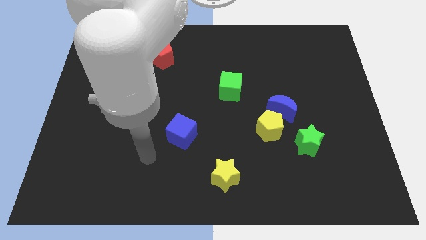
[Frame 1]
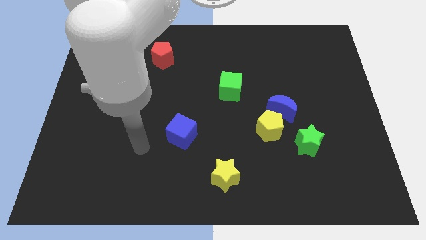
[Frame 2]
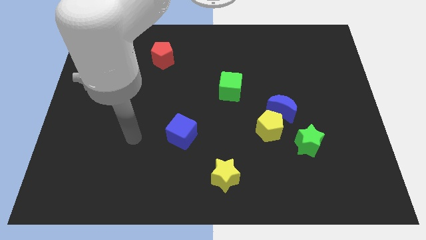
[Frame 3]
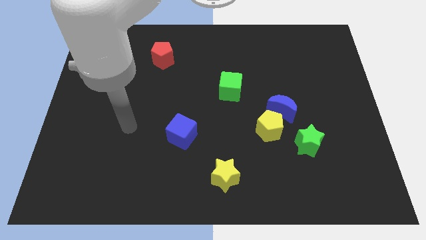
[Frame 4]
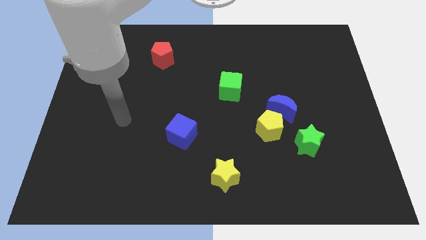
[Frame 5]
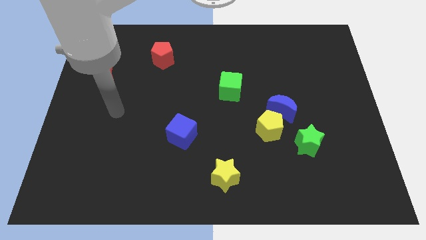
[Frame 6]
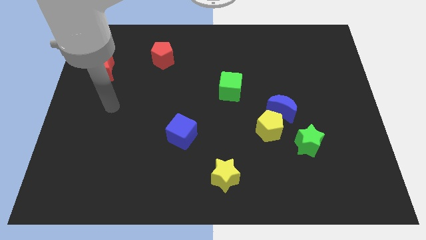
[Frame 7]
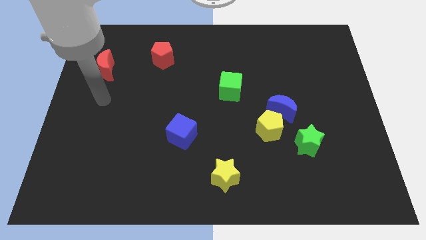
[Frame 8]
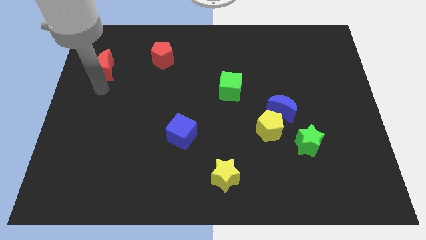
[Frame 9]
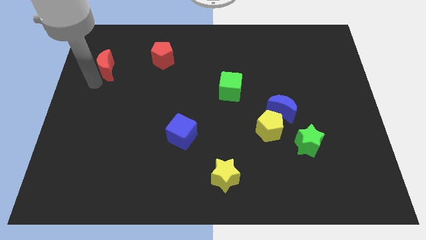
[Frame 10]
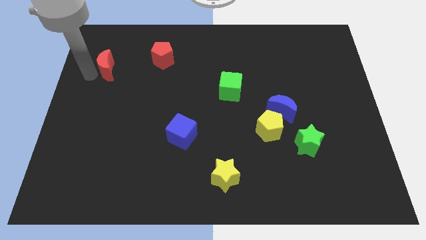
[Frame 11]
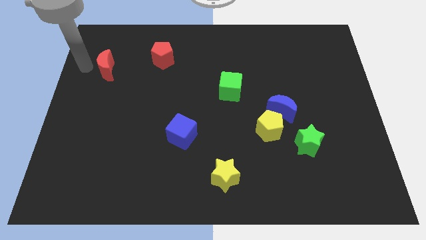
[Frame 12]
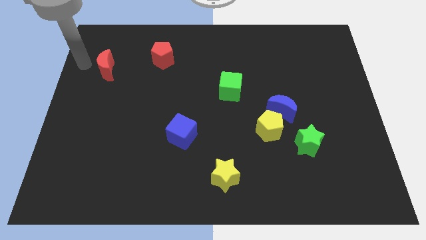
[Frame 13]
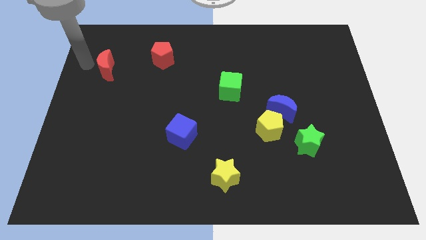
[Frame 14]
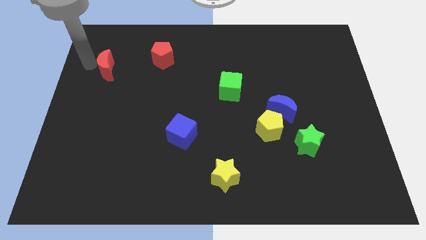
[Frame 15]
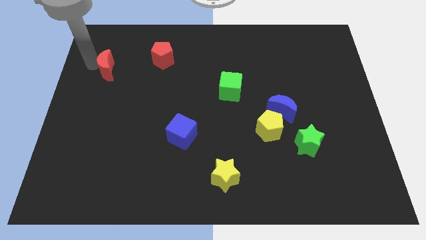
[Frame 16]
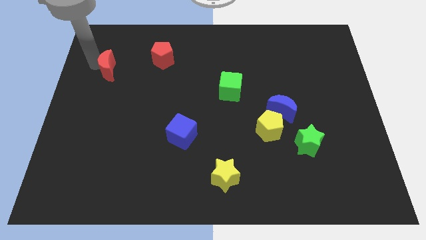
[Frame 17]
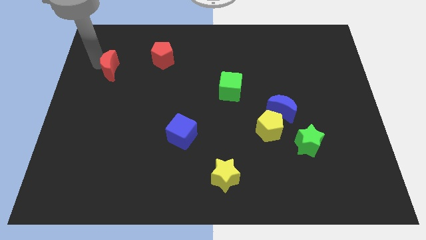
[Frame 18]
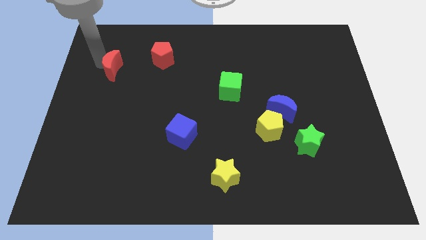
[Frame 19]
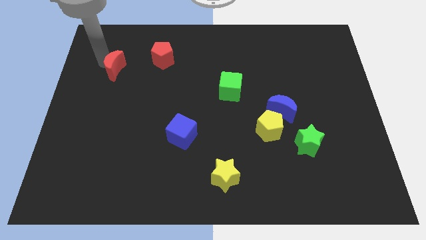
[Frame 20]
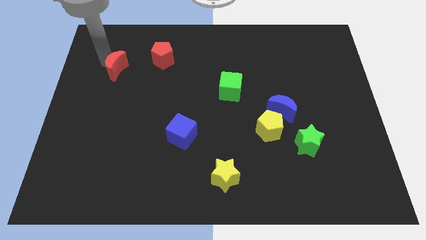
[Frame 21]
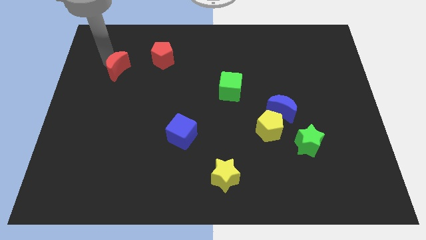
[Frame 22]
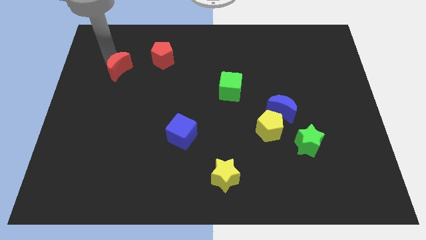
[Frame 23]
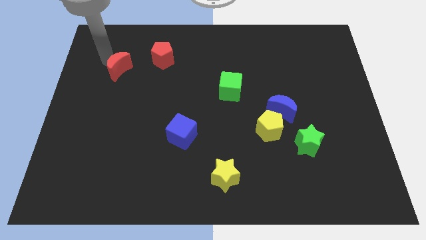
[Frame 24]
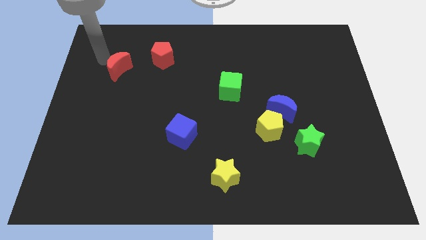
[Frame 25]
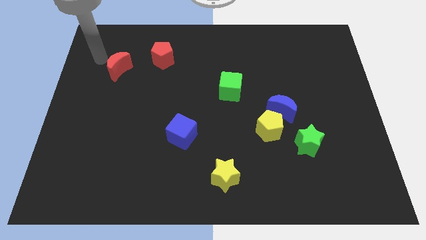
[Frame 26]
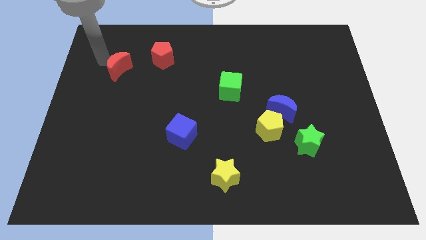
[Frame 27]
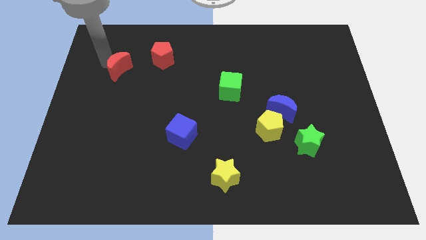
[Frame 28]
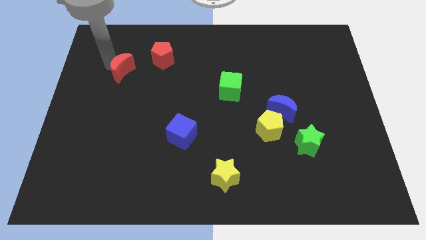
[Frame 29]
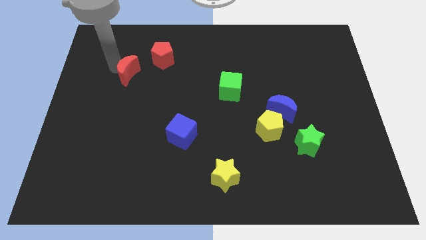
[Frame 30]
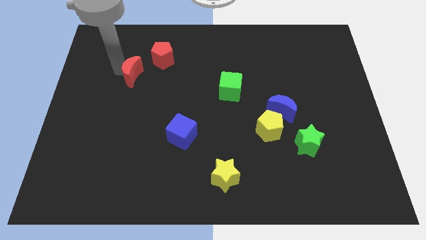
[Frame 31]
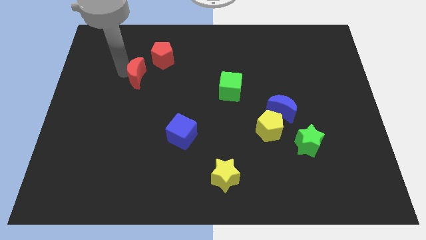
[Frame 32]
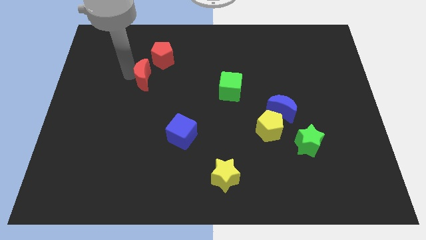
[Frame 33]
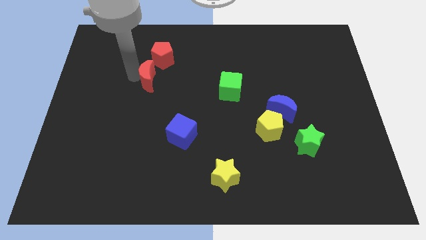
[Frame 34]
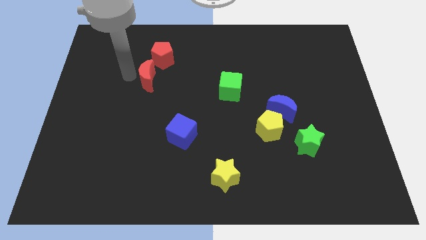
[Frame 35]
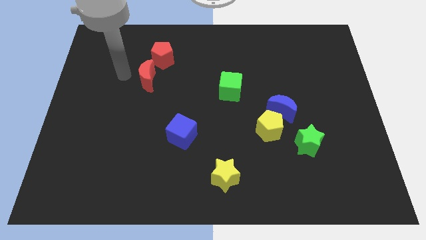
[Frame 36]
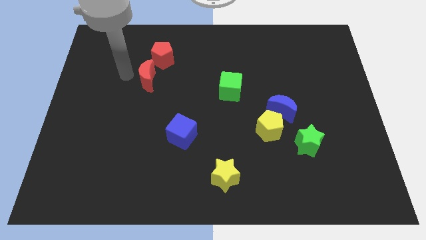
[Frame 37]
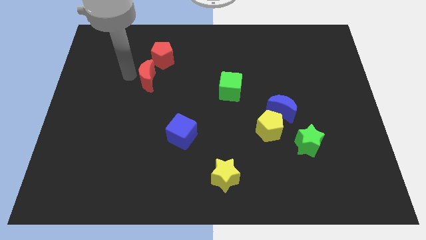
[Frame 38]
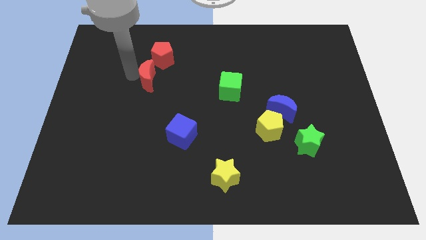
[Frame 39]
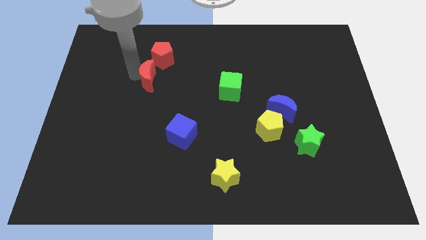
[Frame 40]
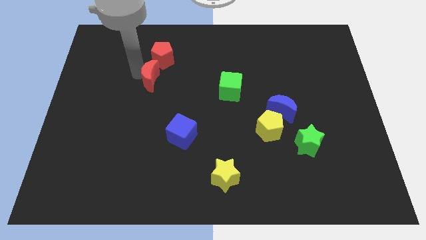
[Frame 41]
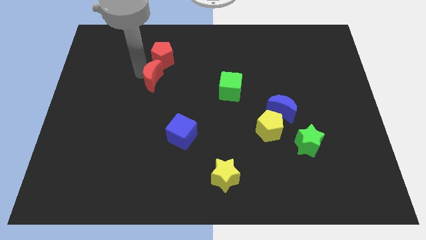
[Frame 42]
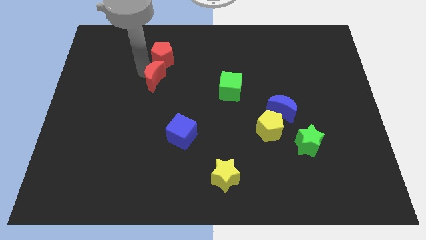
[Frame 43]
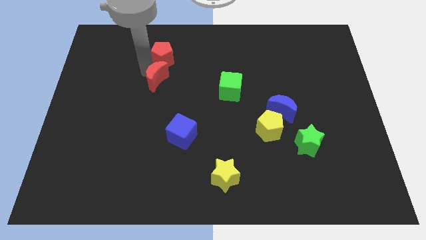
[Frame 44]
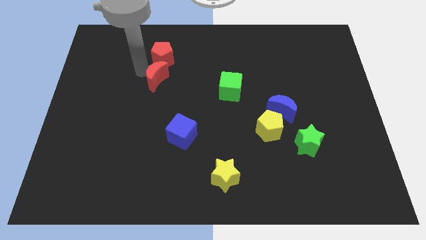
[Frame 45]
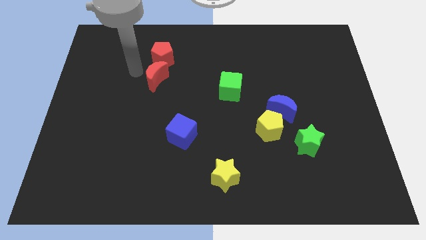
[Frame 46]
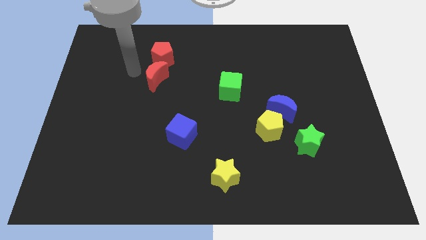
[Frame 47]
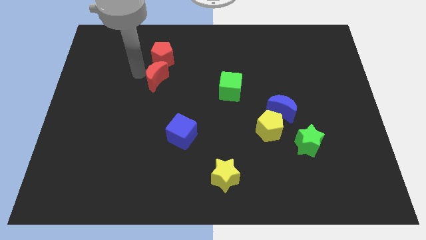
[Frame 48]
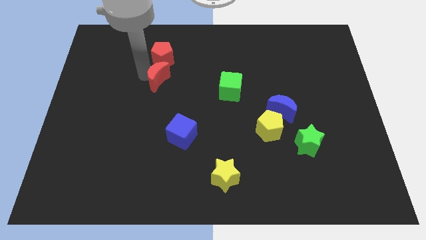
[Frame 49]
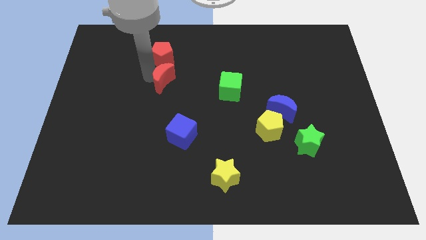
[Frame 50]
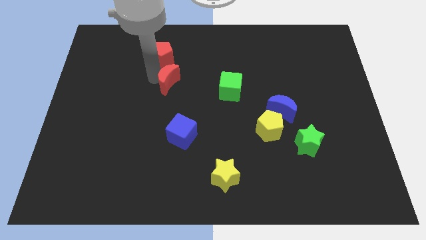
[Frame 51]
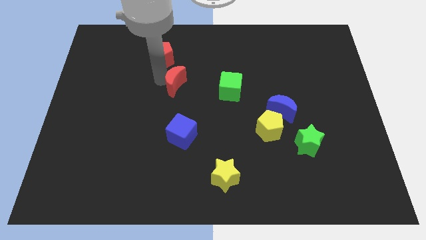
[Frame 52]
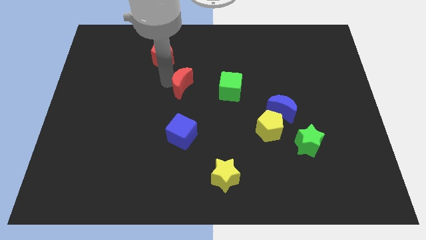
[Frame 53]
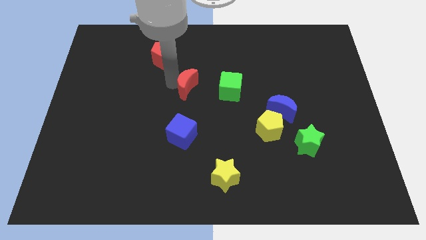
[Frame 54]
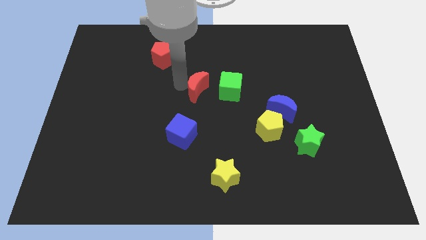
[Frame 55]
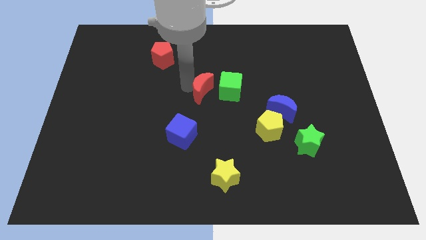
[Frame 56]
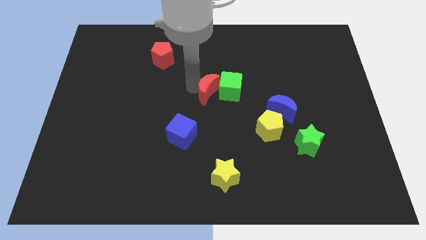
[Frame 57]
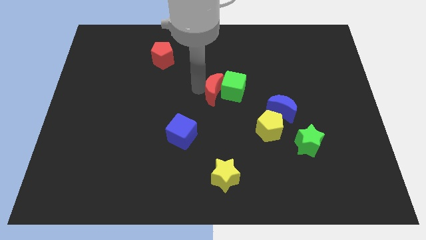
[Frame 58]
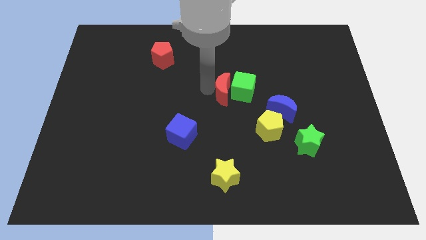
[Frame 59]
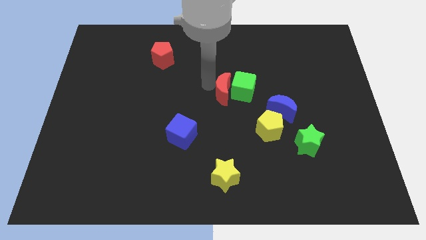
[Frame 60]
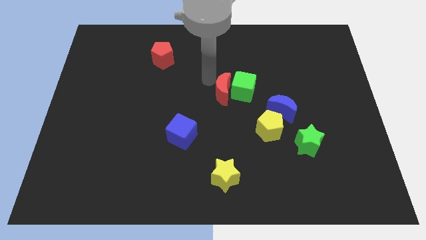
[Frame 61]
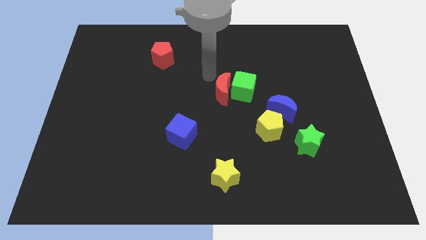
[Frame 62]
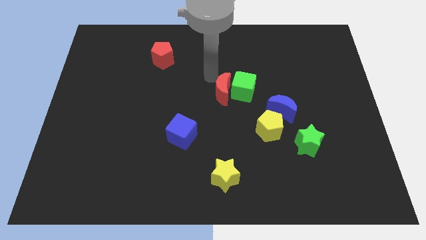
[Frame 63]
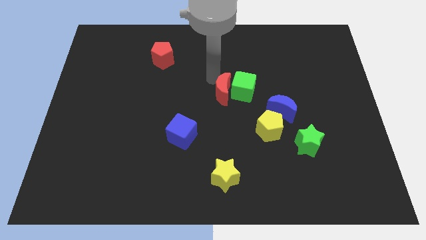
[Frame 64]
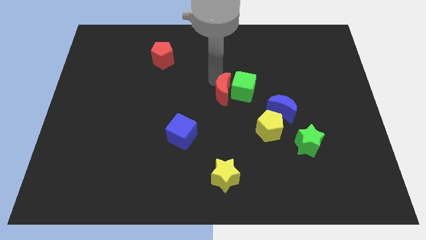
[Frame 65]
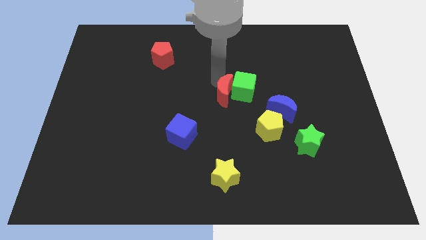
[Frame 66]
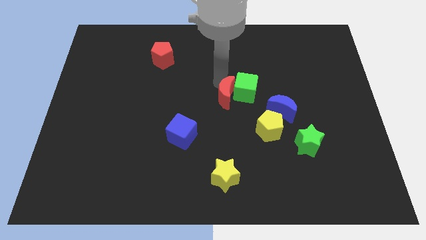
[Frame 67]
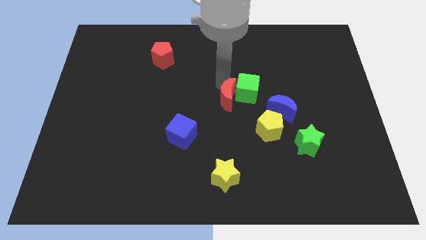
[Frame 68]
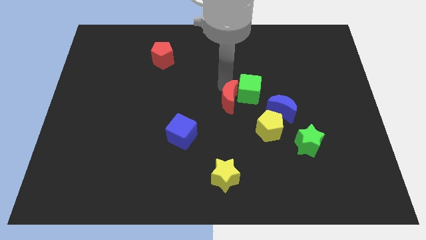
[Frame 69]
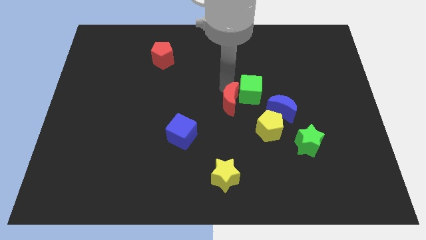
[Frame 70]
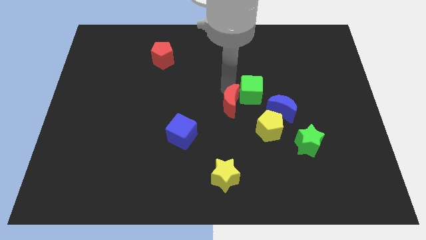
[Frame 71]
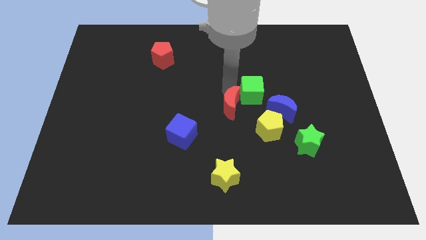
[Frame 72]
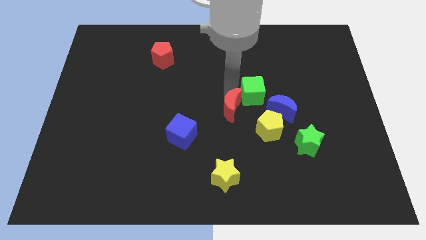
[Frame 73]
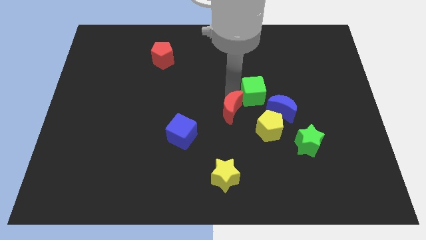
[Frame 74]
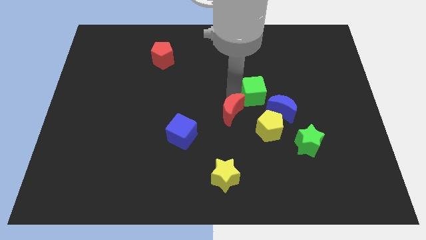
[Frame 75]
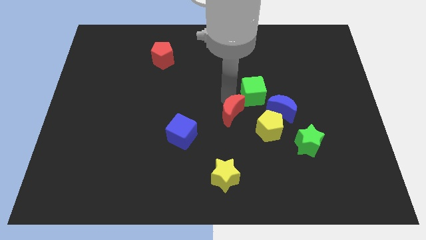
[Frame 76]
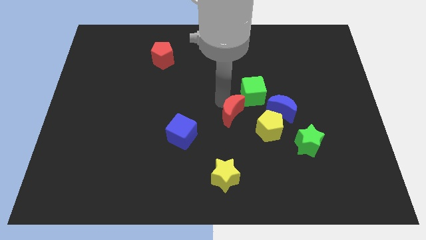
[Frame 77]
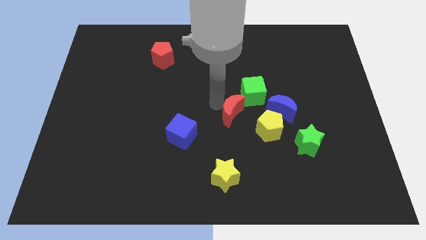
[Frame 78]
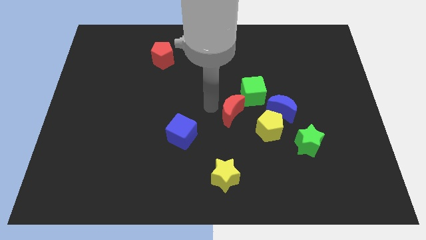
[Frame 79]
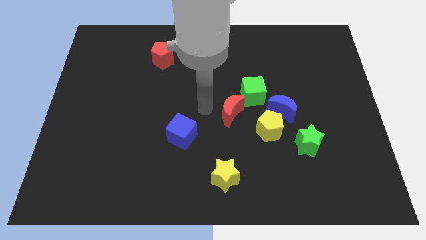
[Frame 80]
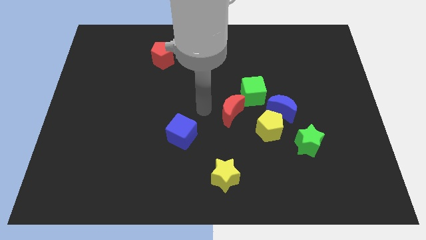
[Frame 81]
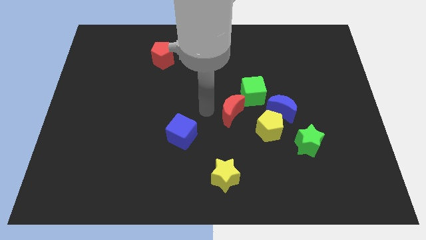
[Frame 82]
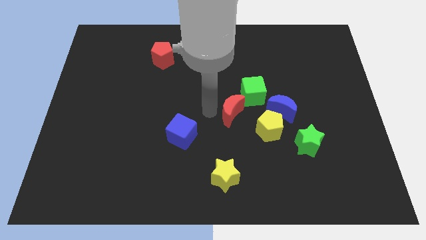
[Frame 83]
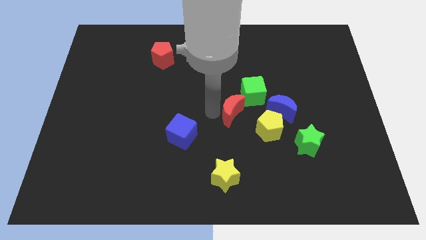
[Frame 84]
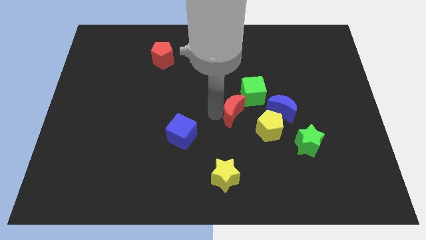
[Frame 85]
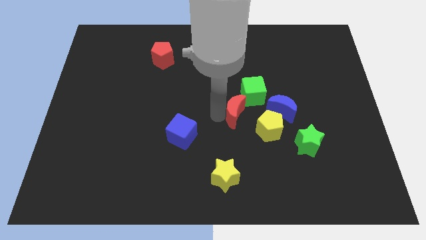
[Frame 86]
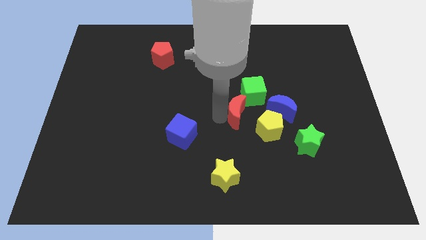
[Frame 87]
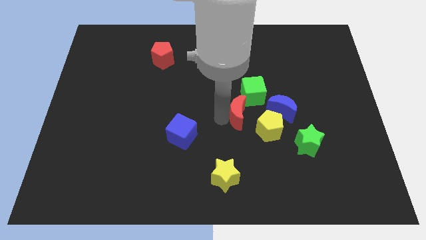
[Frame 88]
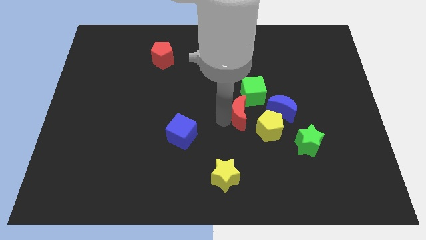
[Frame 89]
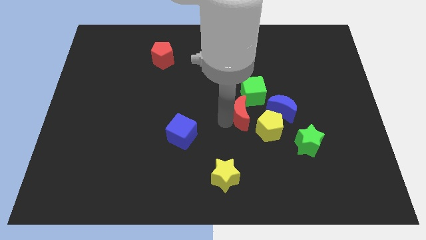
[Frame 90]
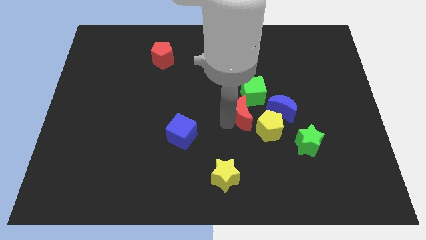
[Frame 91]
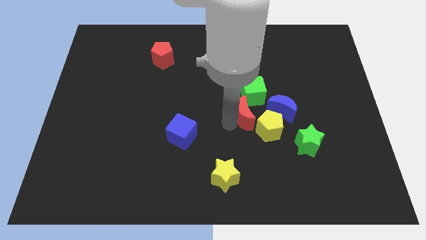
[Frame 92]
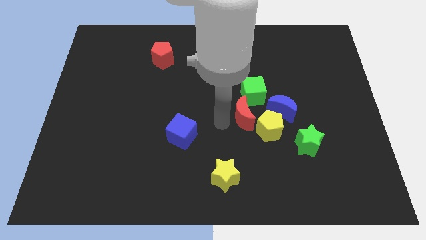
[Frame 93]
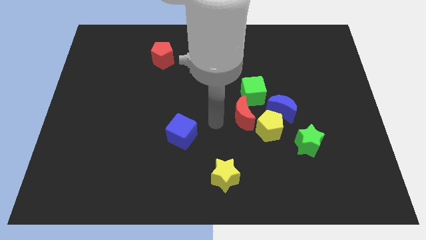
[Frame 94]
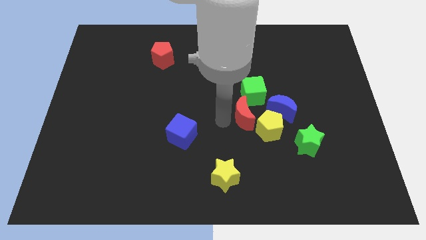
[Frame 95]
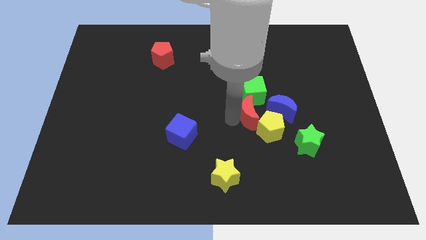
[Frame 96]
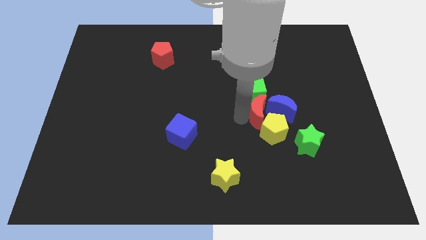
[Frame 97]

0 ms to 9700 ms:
put the red moon next to the blue moon
